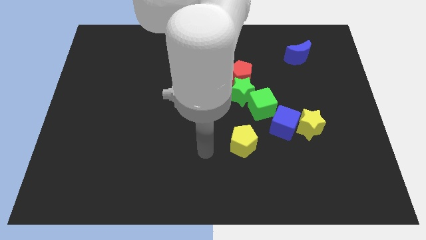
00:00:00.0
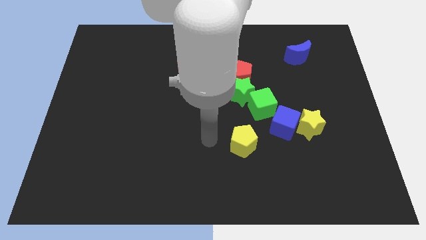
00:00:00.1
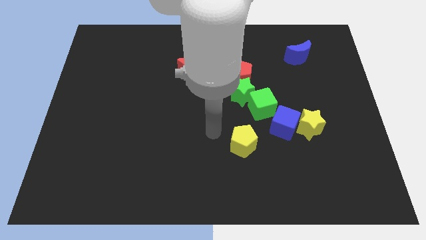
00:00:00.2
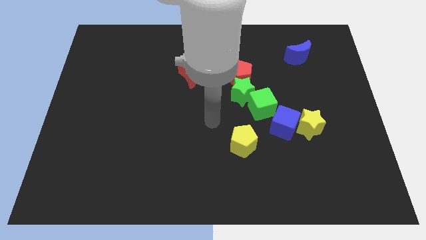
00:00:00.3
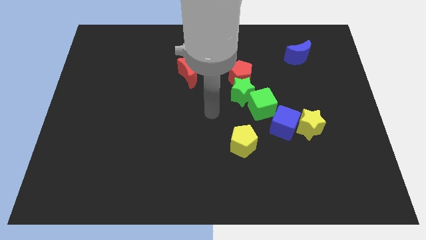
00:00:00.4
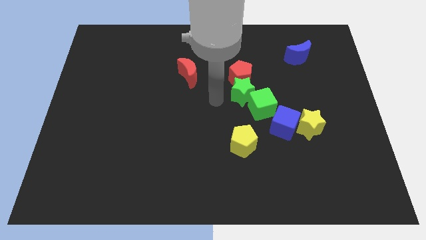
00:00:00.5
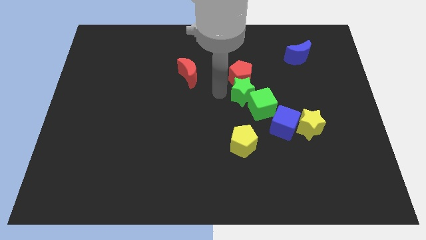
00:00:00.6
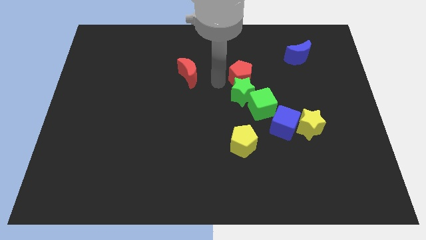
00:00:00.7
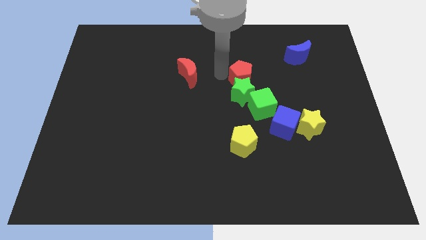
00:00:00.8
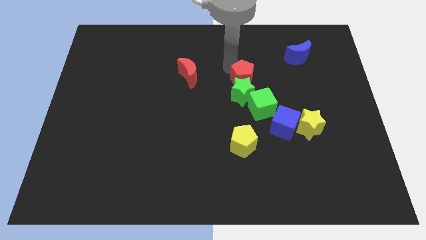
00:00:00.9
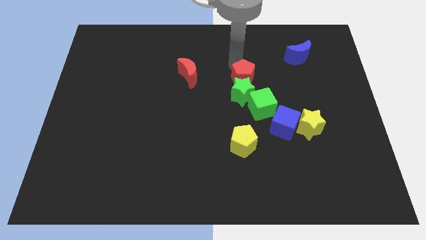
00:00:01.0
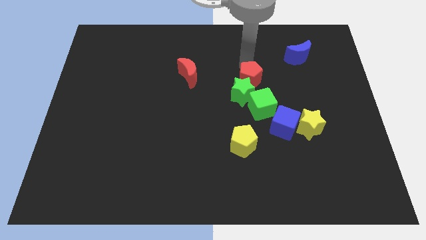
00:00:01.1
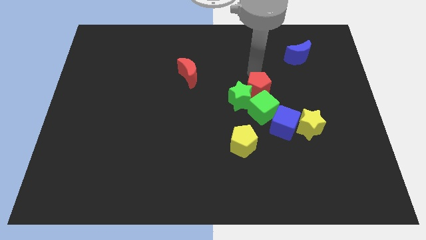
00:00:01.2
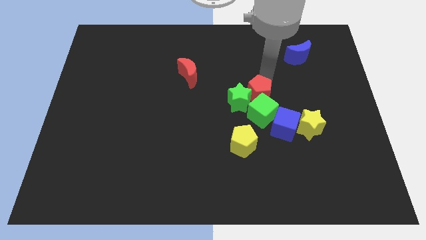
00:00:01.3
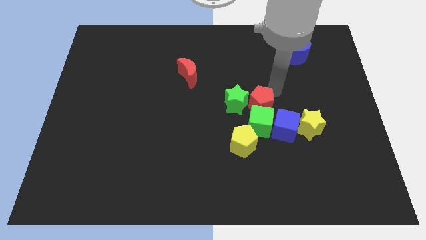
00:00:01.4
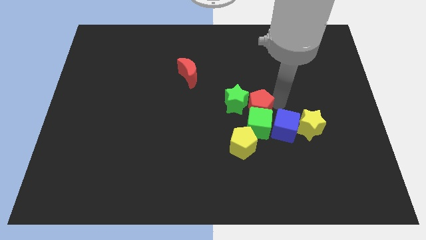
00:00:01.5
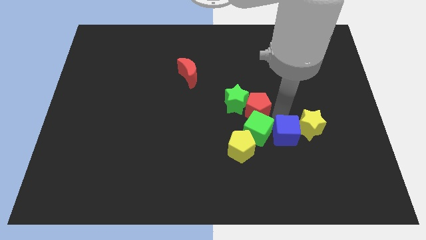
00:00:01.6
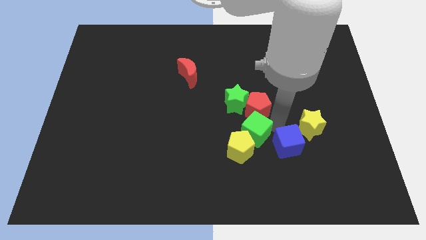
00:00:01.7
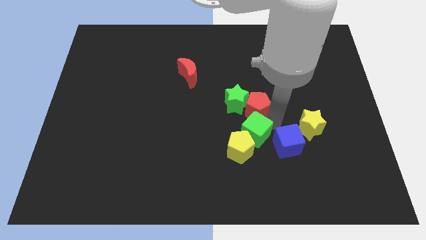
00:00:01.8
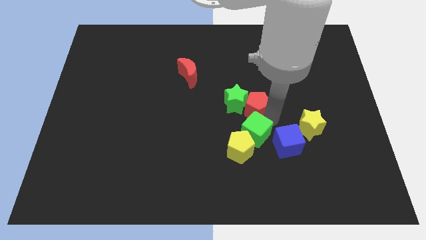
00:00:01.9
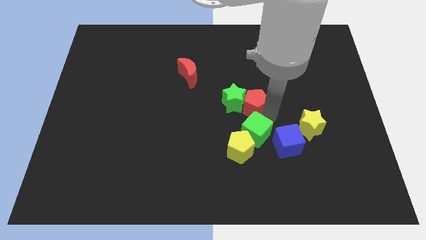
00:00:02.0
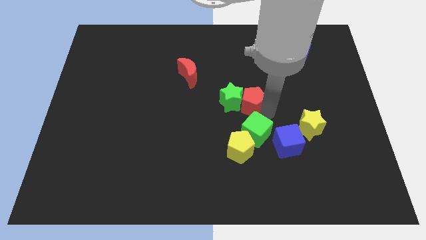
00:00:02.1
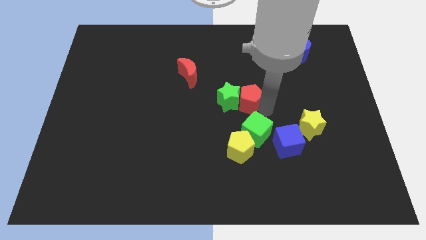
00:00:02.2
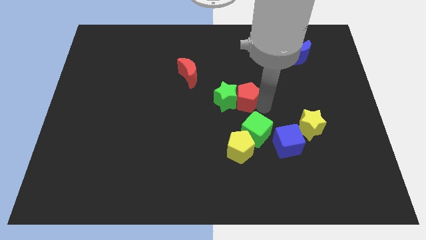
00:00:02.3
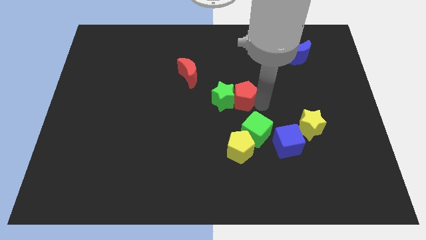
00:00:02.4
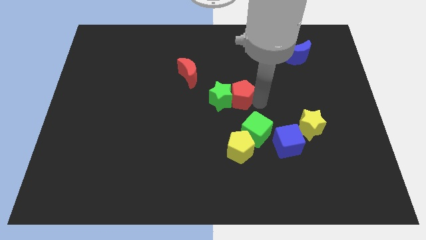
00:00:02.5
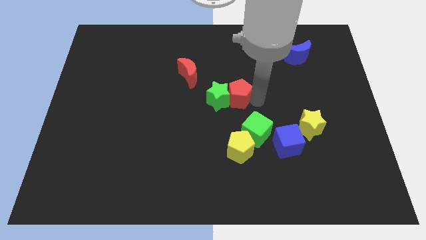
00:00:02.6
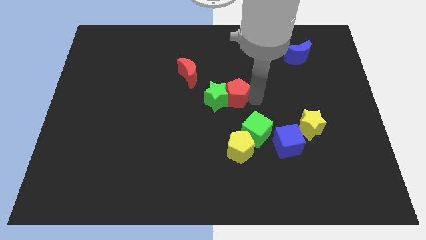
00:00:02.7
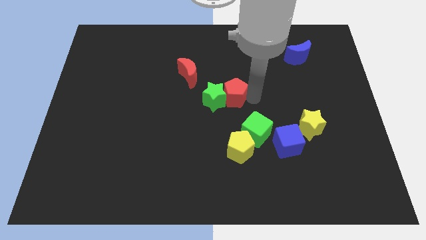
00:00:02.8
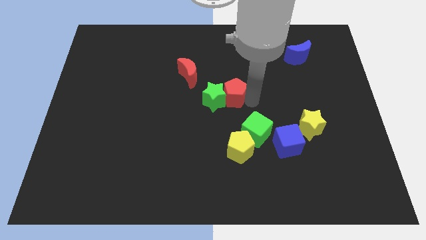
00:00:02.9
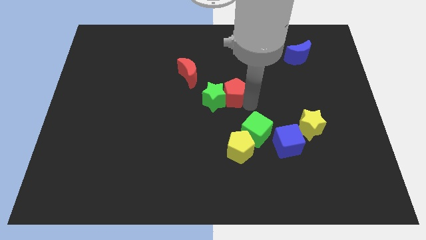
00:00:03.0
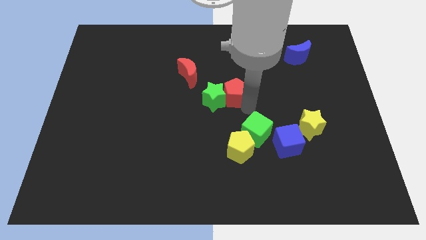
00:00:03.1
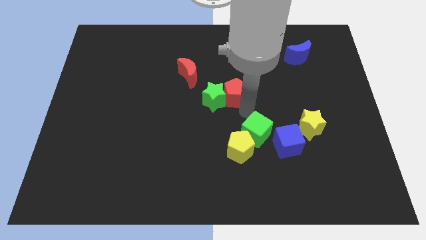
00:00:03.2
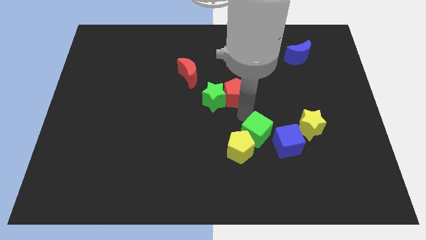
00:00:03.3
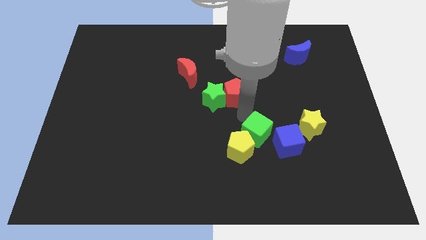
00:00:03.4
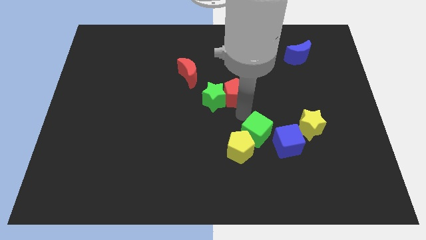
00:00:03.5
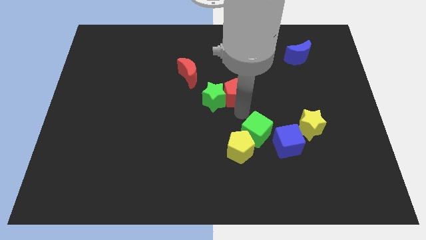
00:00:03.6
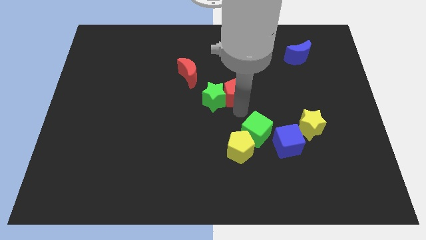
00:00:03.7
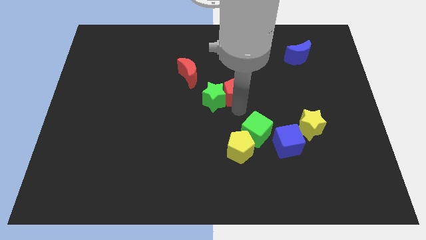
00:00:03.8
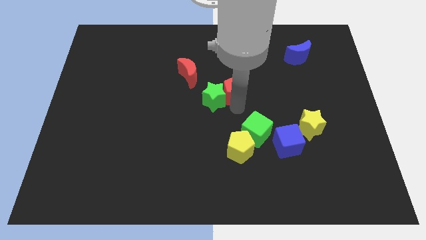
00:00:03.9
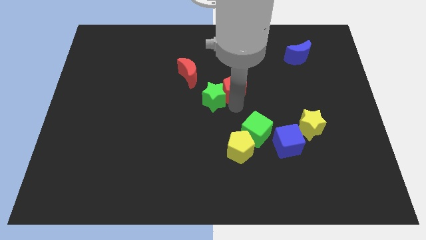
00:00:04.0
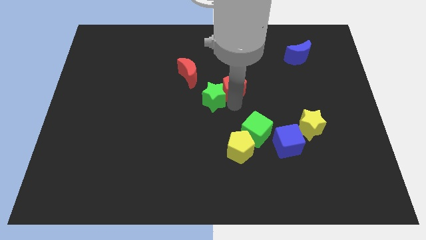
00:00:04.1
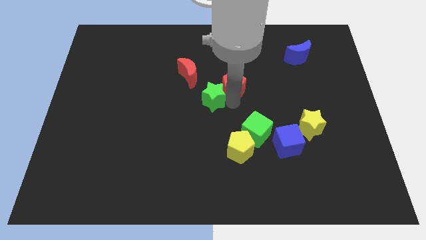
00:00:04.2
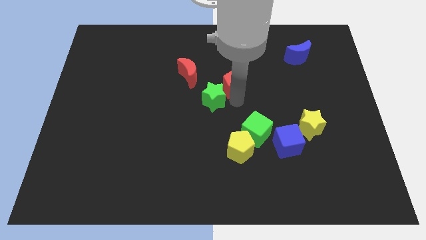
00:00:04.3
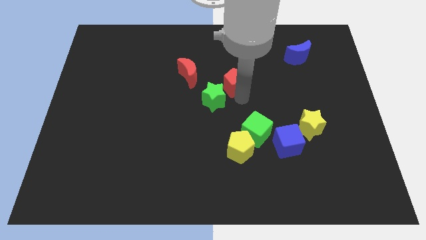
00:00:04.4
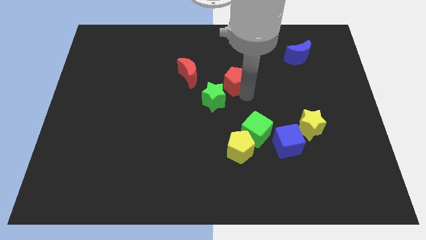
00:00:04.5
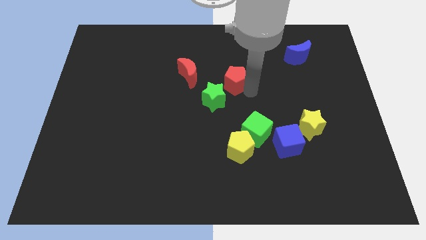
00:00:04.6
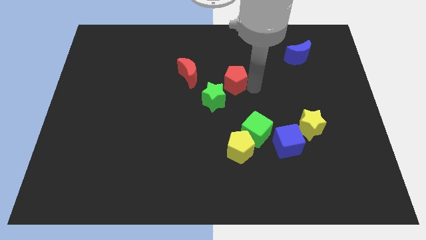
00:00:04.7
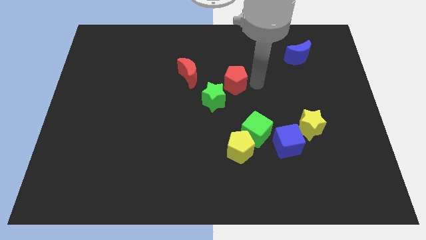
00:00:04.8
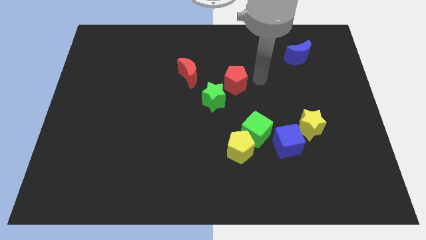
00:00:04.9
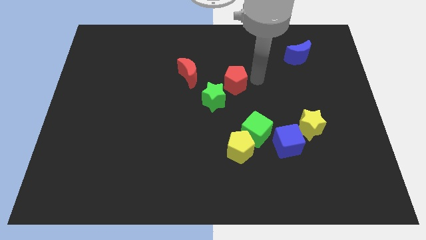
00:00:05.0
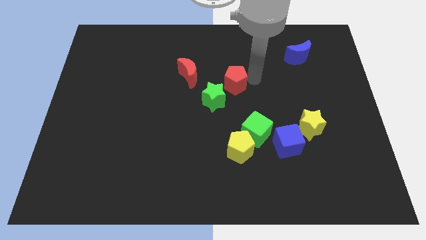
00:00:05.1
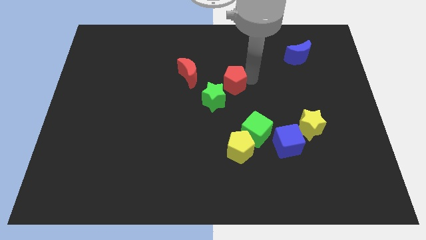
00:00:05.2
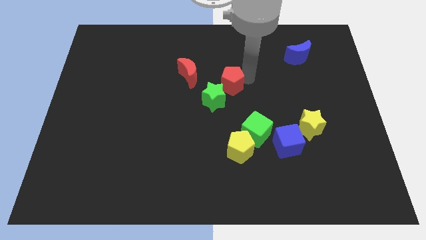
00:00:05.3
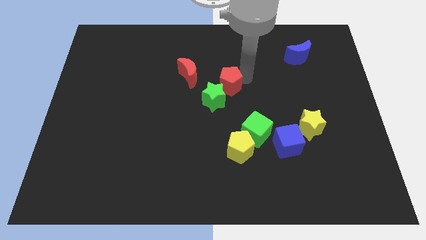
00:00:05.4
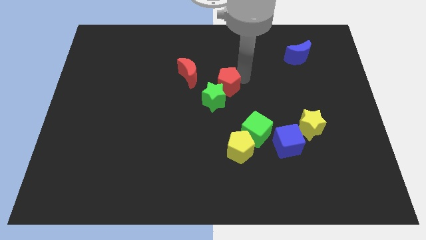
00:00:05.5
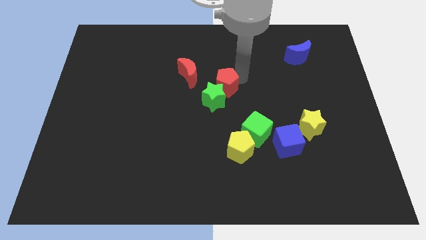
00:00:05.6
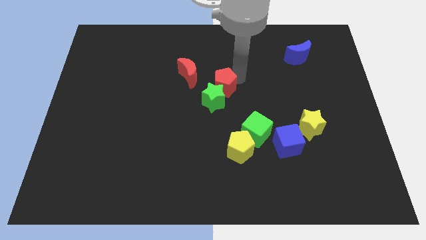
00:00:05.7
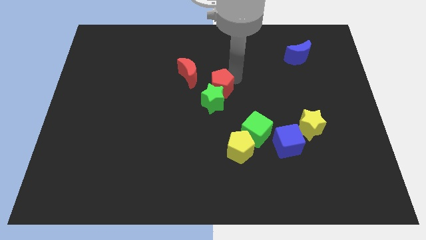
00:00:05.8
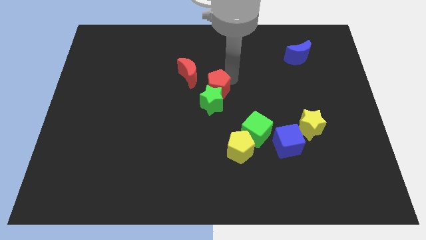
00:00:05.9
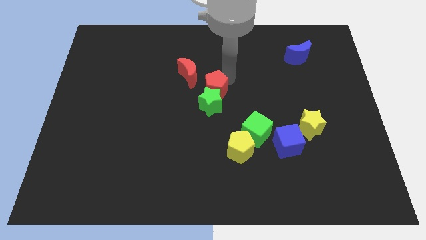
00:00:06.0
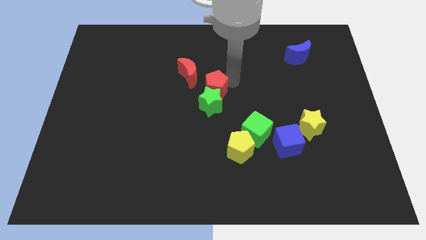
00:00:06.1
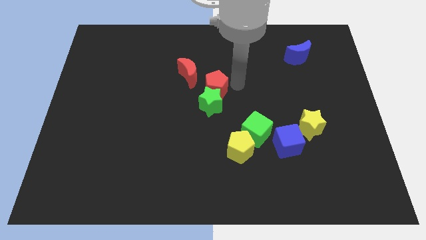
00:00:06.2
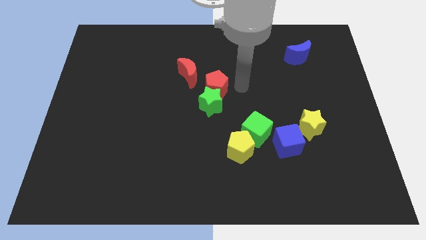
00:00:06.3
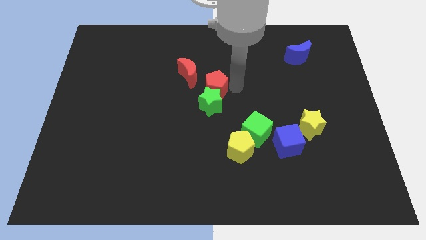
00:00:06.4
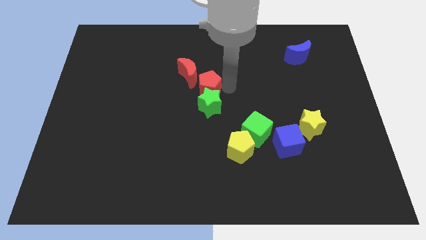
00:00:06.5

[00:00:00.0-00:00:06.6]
move the red pentagon a little bit left

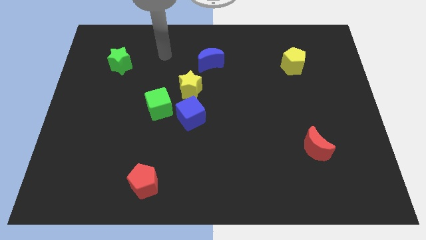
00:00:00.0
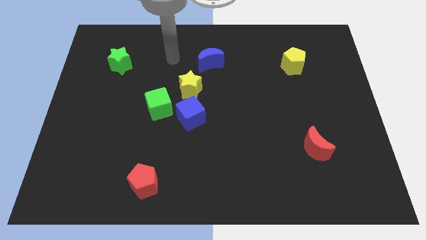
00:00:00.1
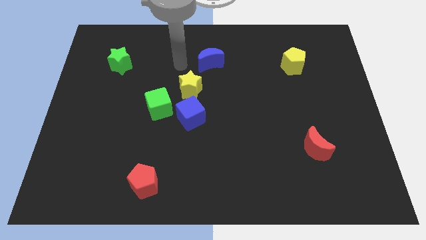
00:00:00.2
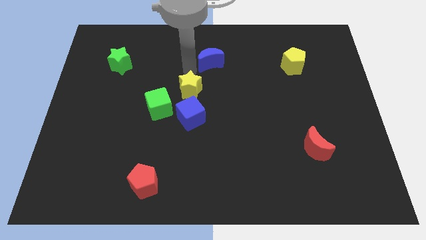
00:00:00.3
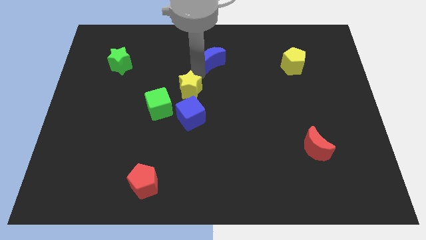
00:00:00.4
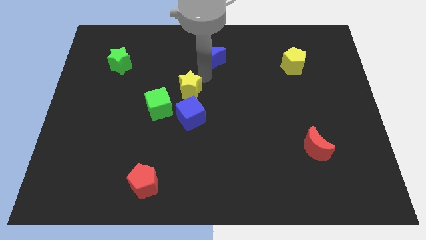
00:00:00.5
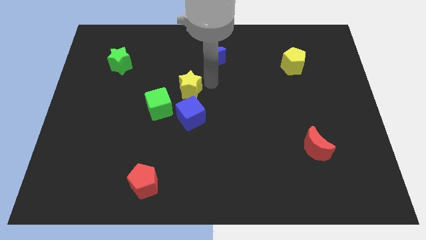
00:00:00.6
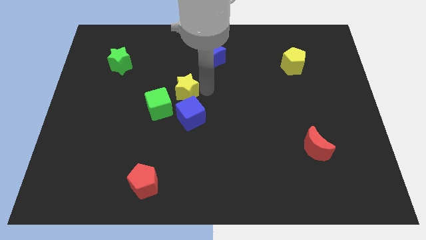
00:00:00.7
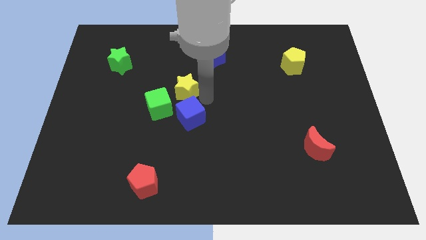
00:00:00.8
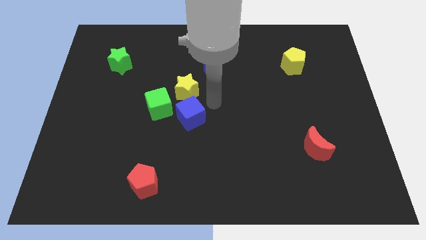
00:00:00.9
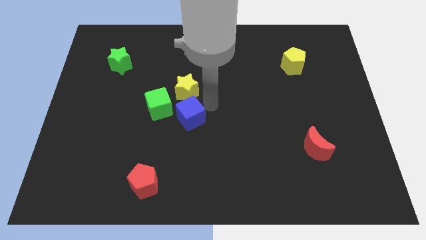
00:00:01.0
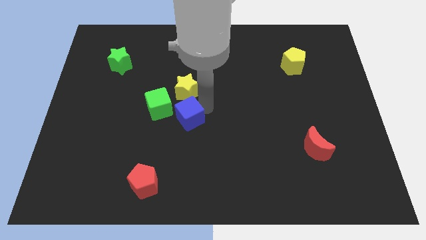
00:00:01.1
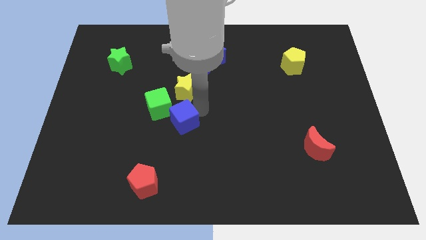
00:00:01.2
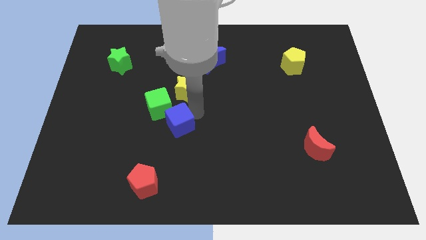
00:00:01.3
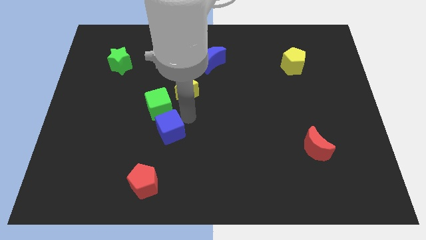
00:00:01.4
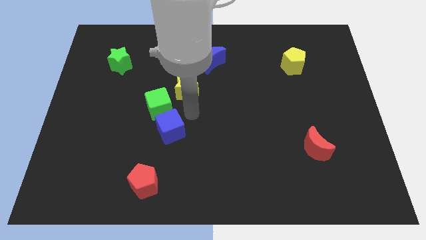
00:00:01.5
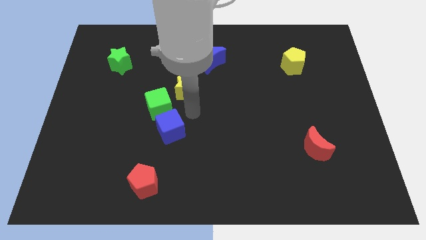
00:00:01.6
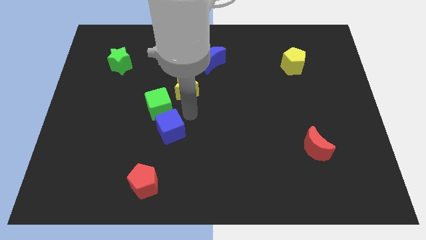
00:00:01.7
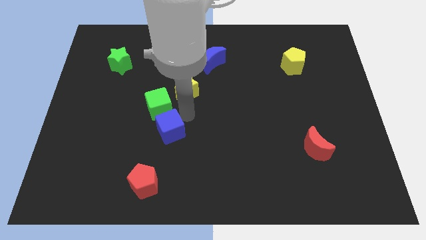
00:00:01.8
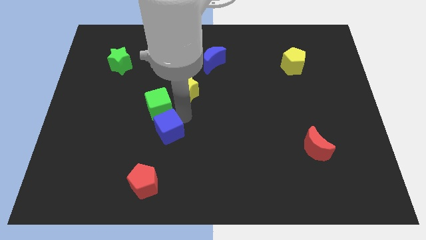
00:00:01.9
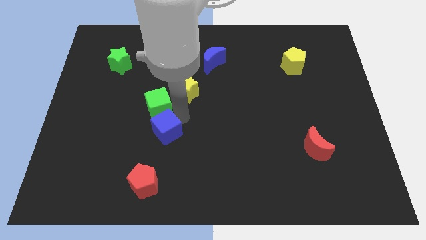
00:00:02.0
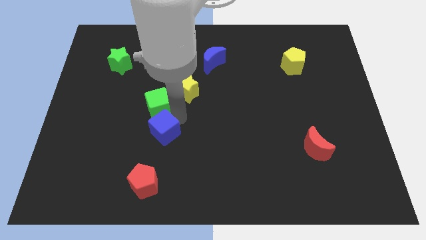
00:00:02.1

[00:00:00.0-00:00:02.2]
move the blue cube down and left a bit
